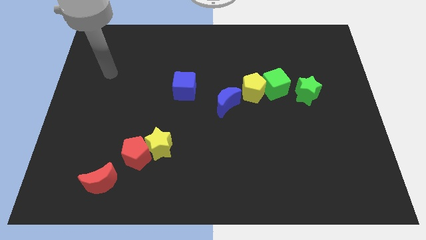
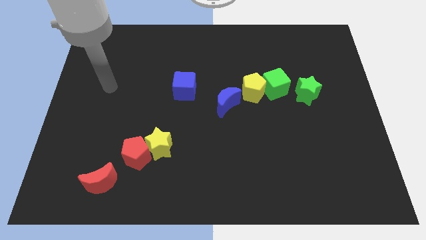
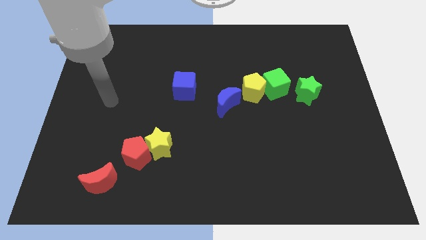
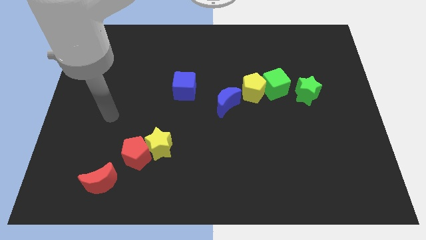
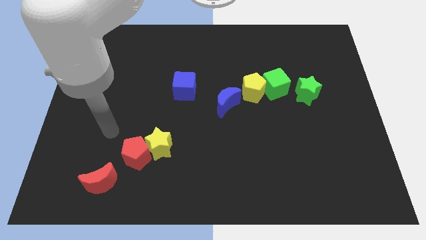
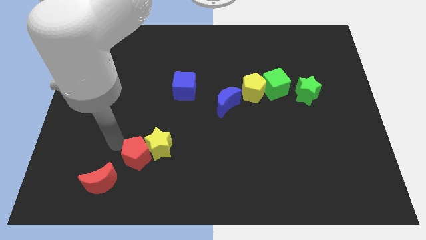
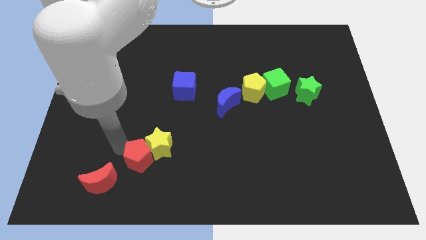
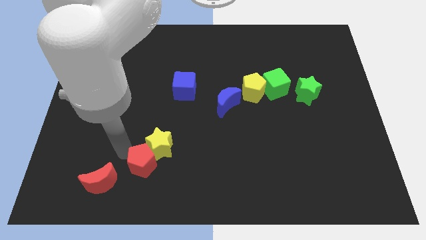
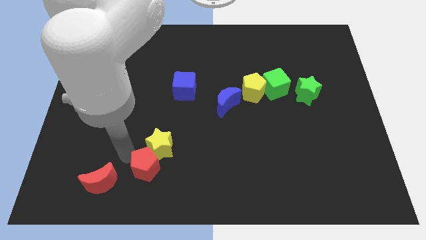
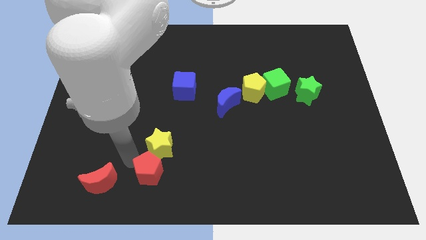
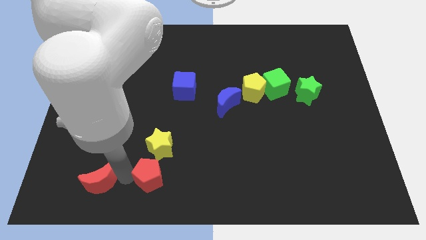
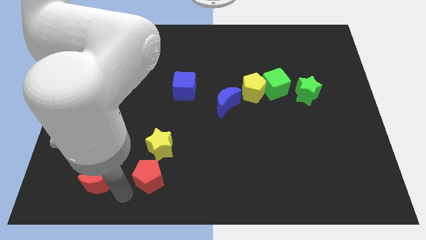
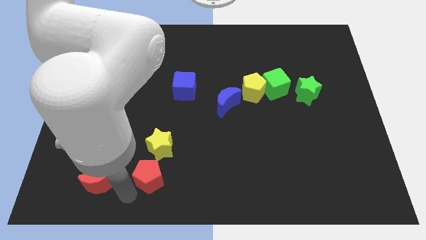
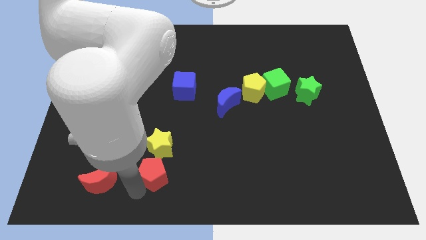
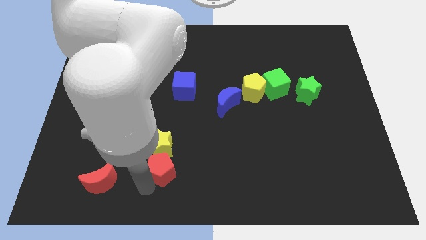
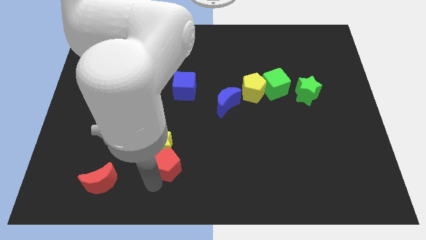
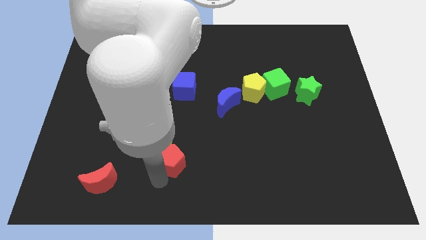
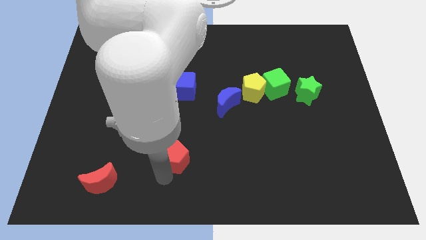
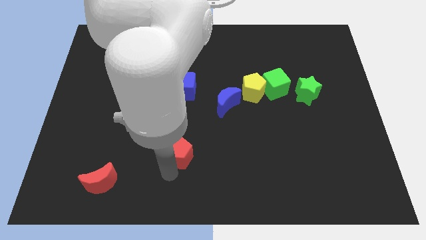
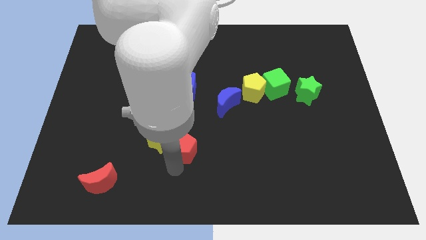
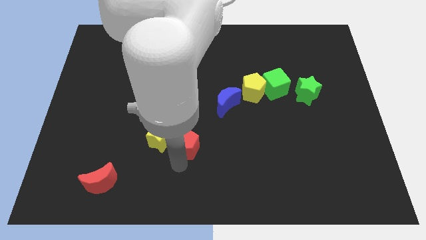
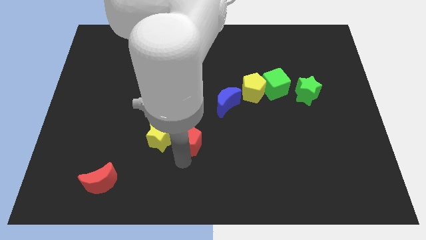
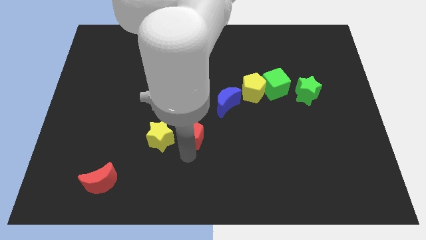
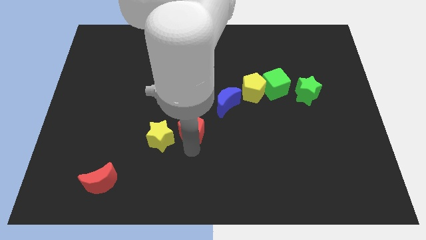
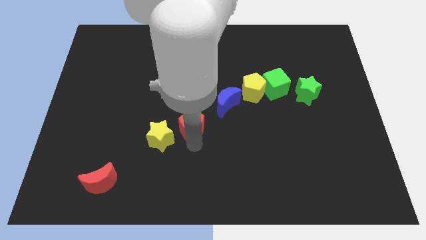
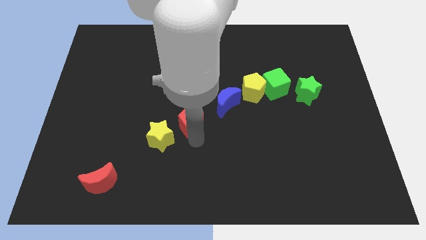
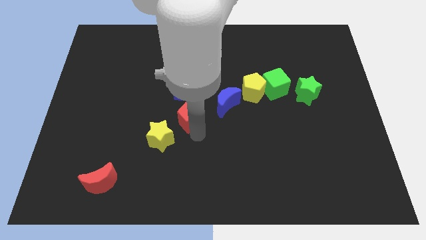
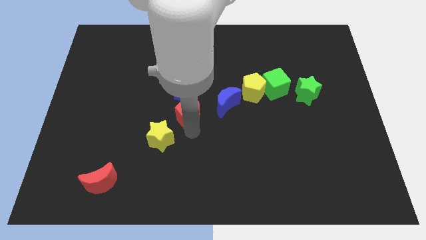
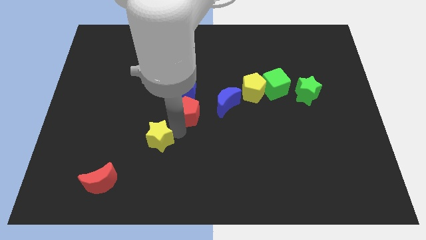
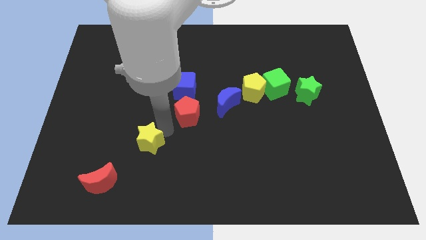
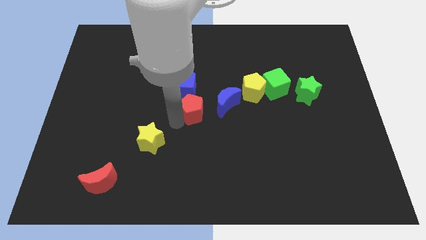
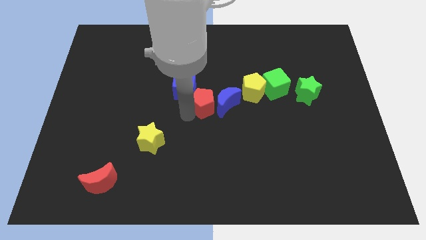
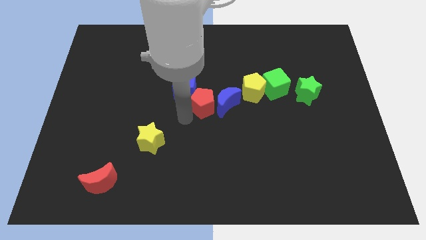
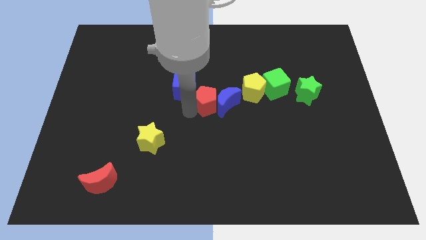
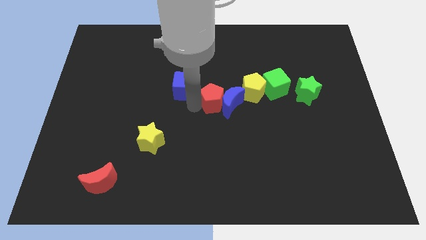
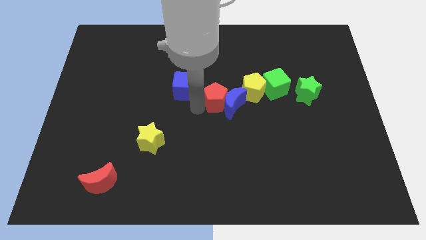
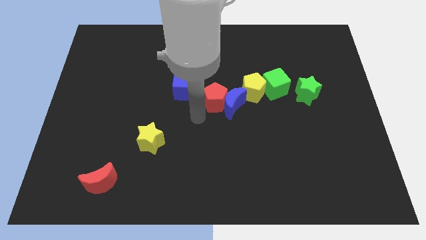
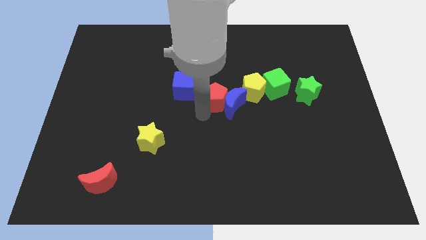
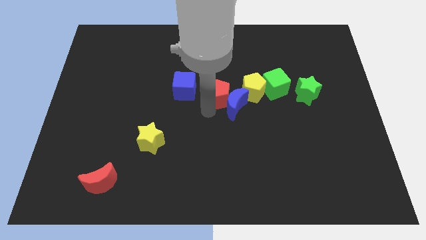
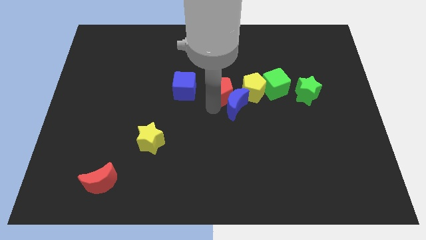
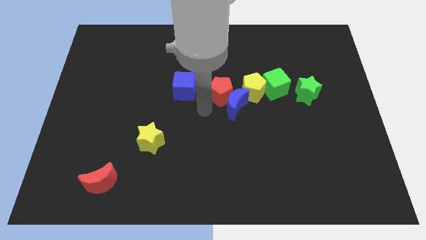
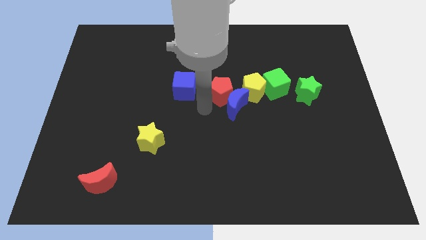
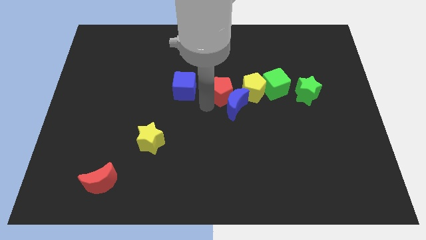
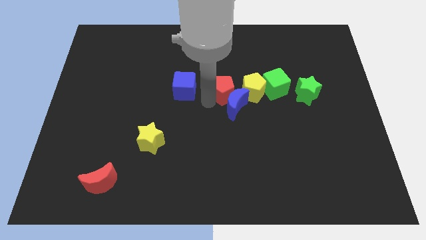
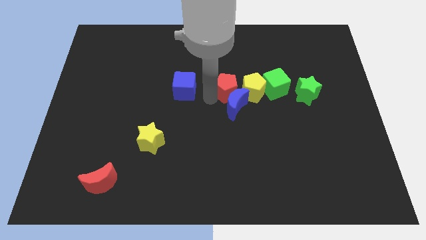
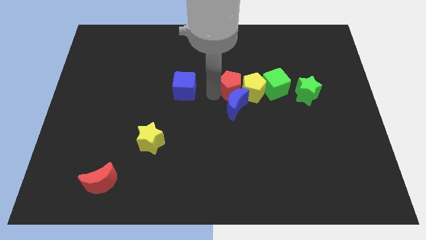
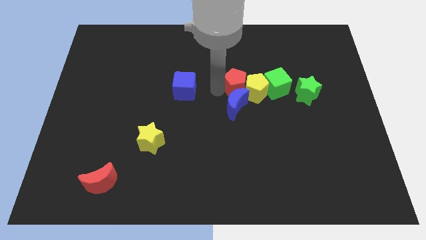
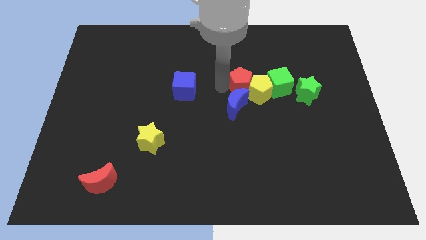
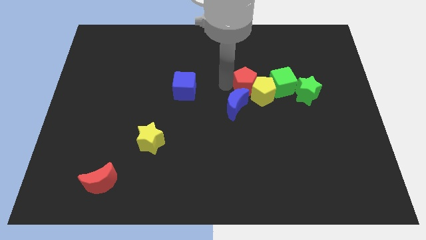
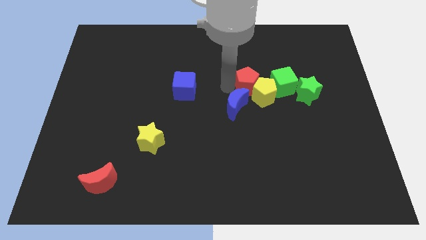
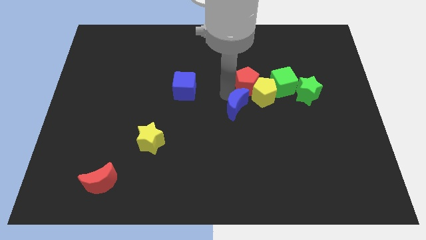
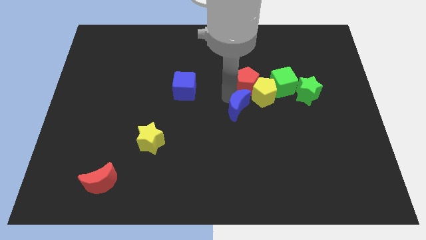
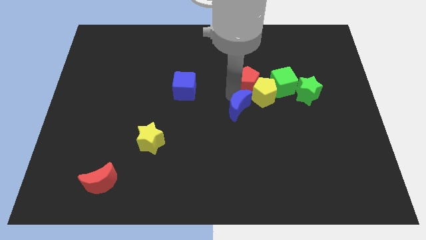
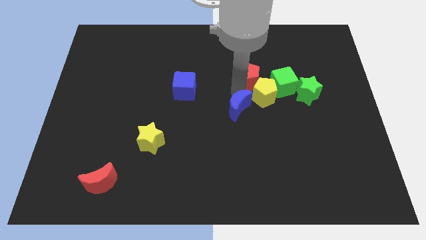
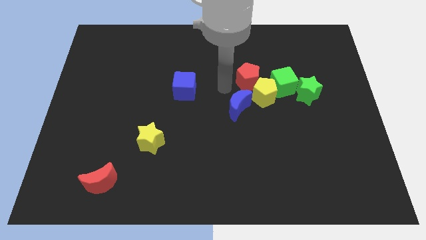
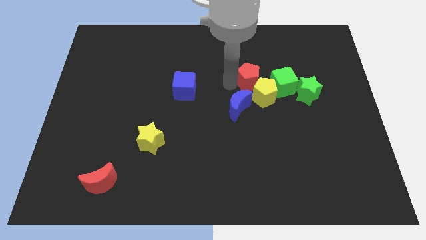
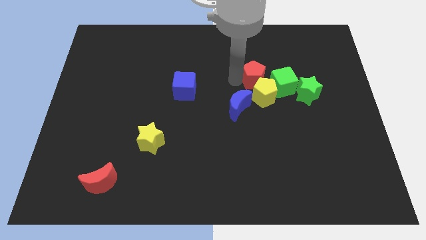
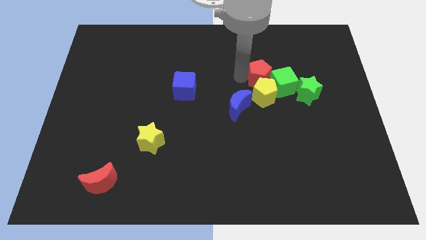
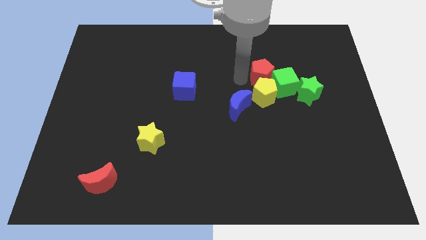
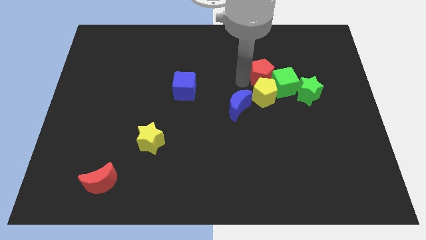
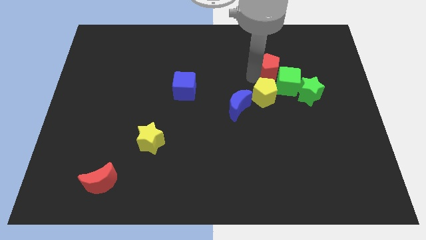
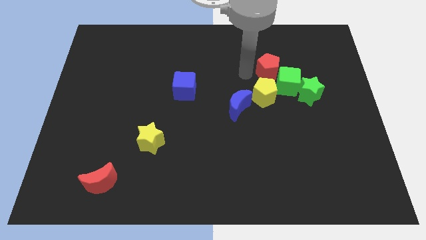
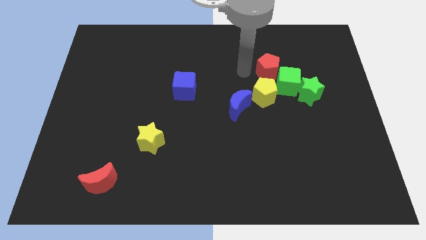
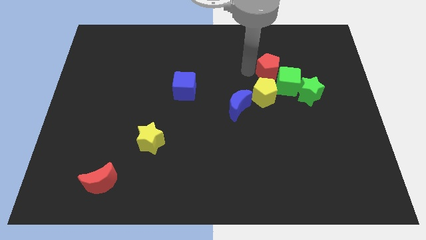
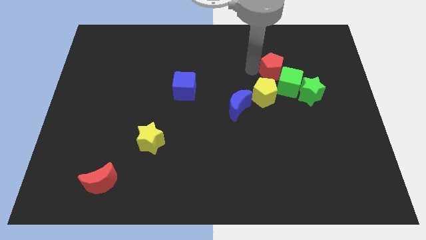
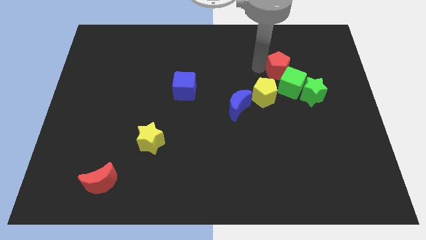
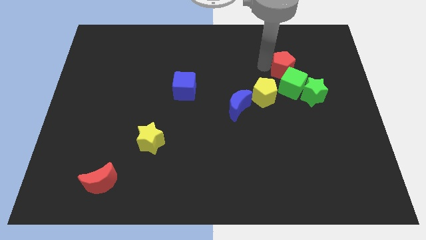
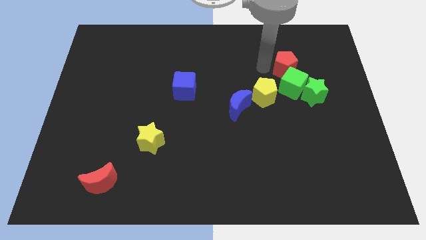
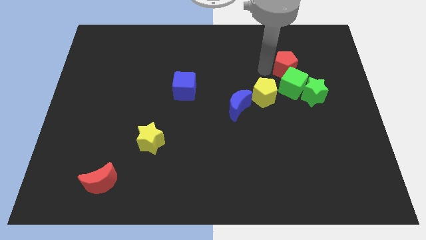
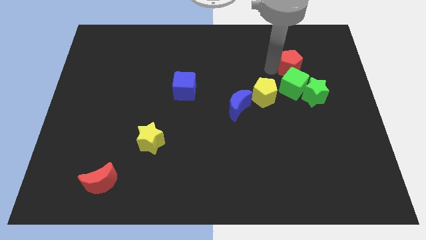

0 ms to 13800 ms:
slide the red pentagon above the green star

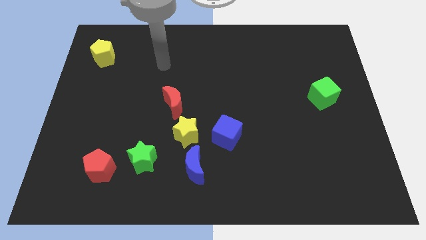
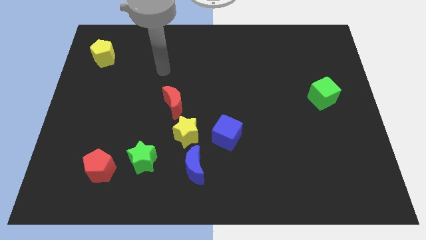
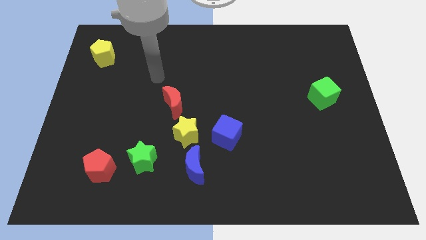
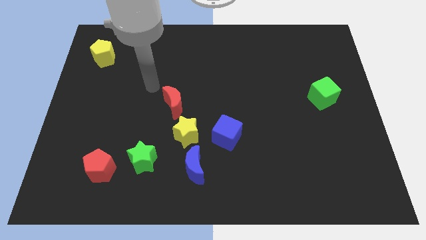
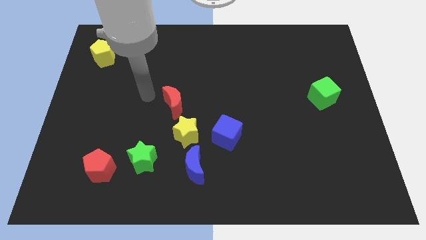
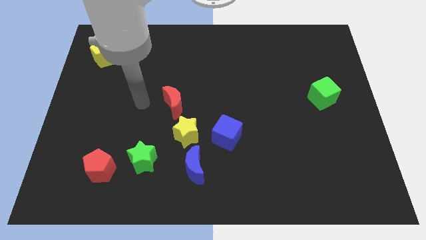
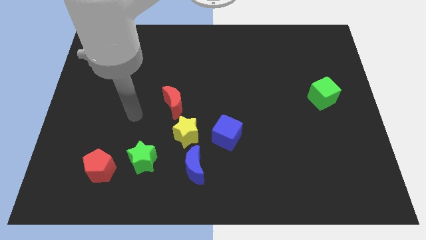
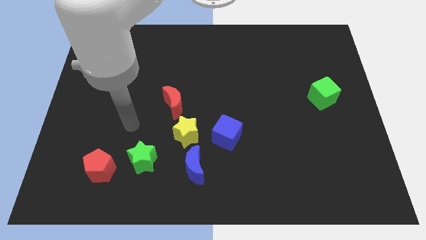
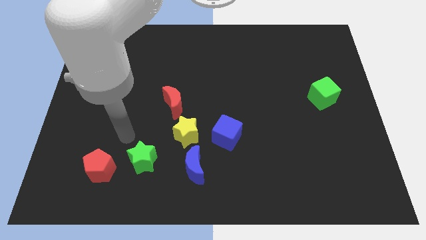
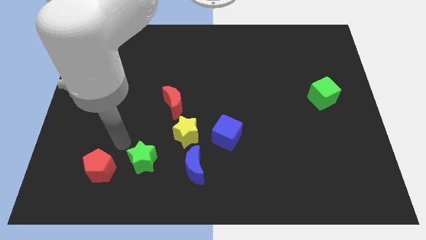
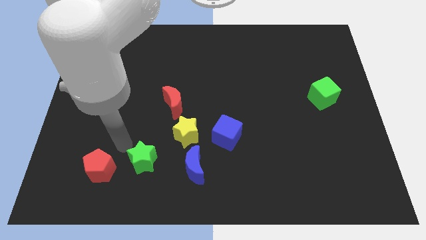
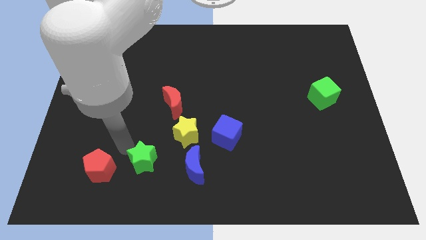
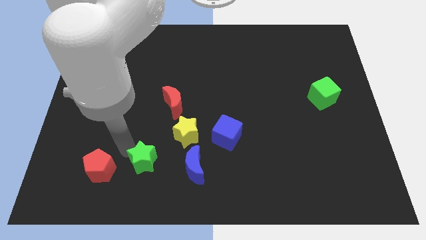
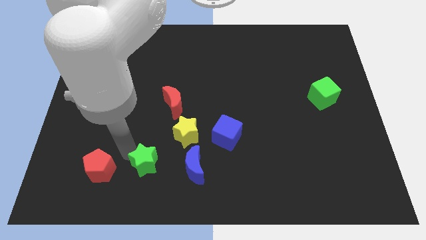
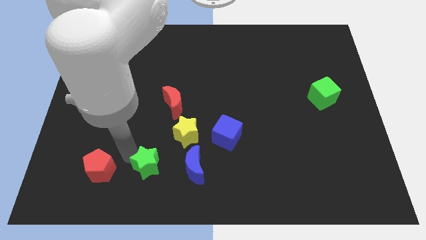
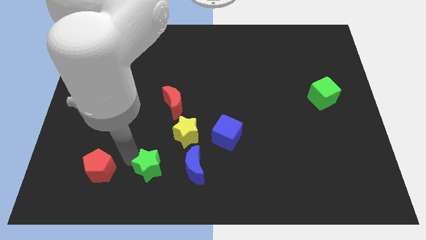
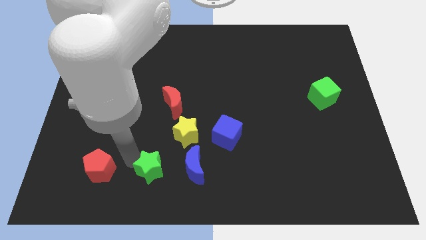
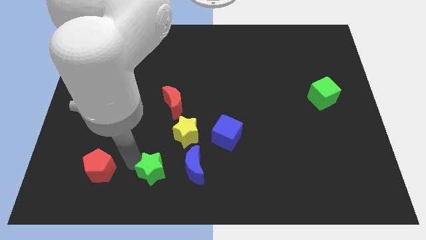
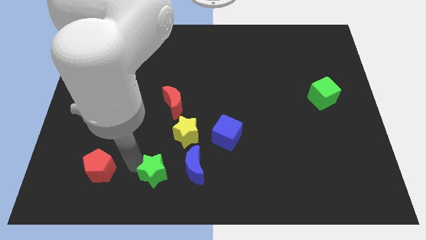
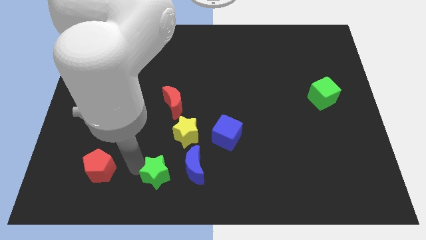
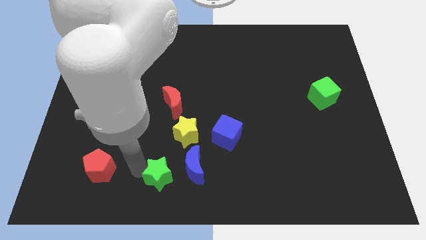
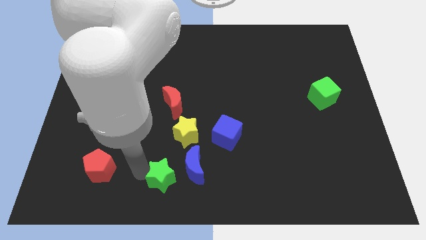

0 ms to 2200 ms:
push the green star to the bottom side of the yellow star
